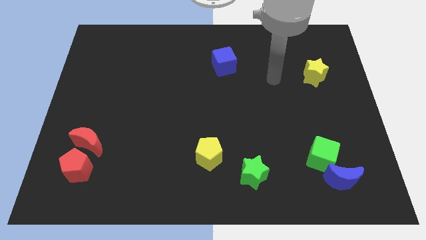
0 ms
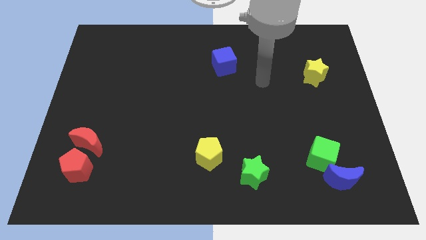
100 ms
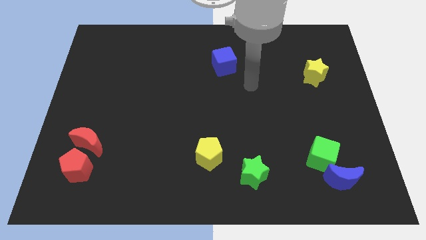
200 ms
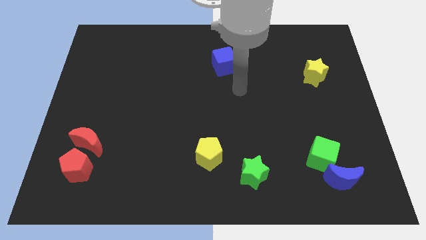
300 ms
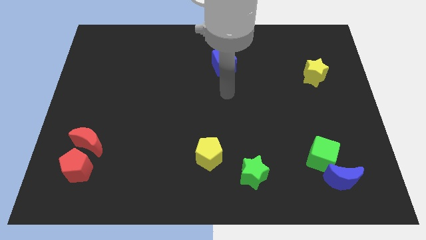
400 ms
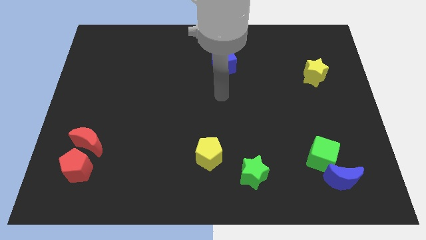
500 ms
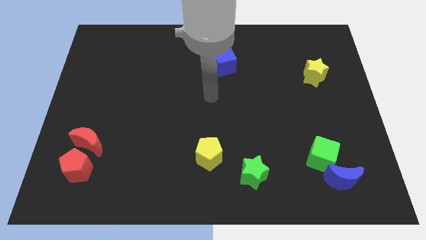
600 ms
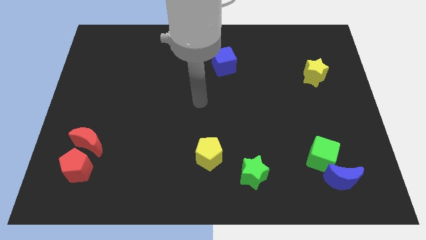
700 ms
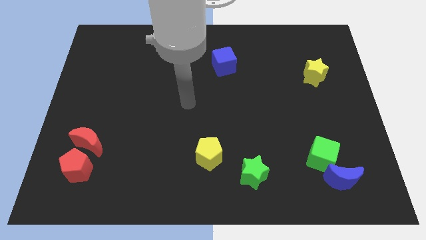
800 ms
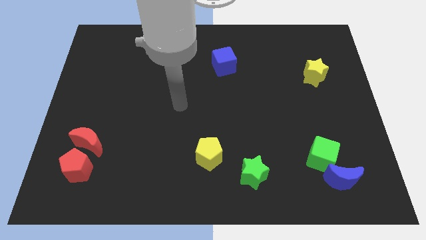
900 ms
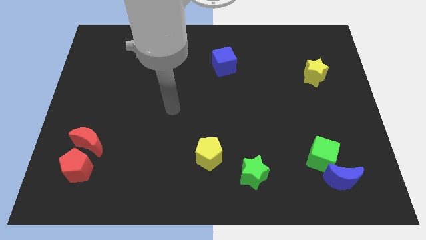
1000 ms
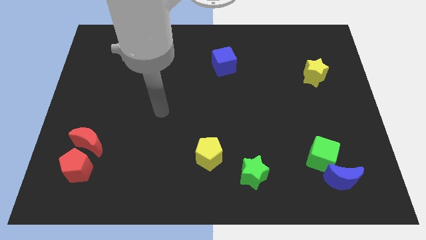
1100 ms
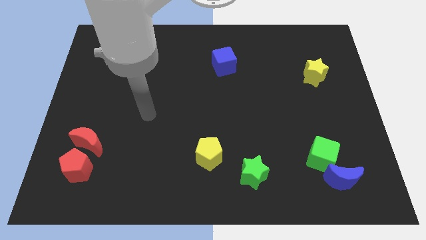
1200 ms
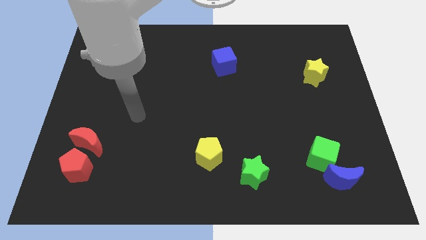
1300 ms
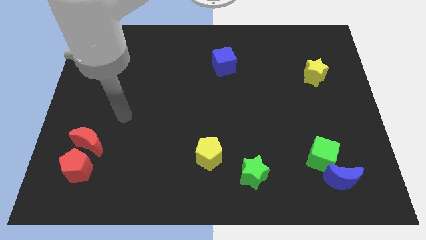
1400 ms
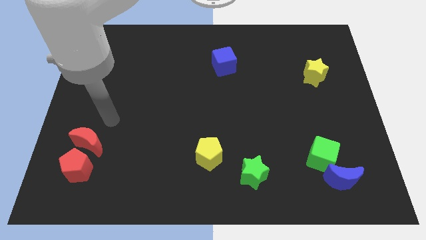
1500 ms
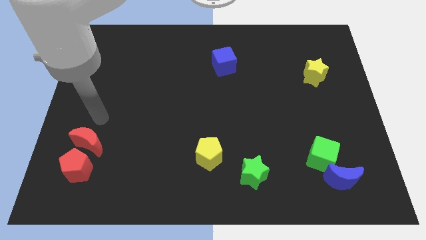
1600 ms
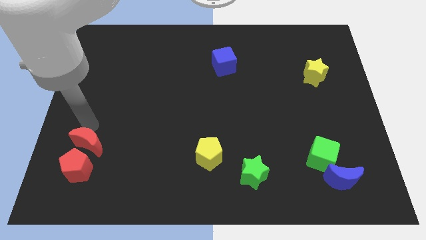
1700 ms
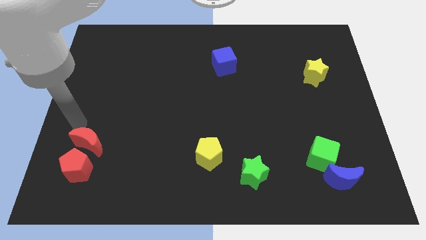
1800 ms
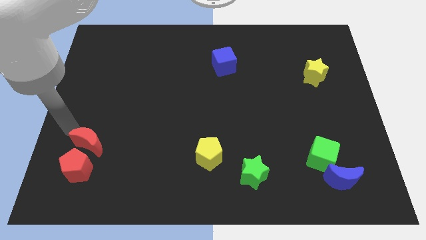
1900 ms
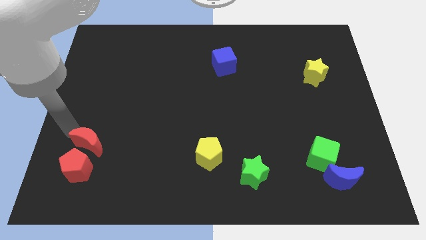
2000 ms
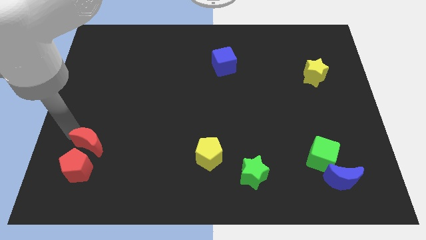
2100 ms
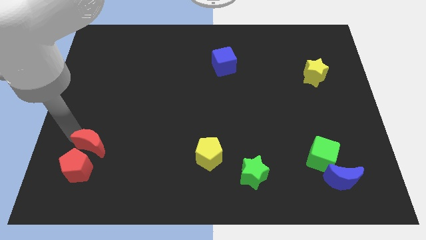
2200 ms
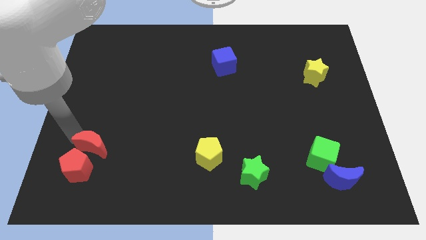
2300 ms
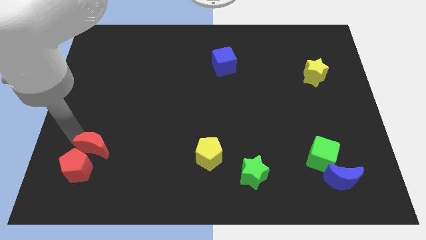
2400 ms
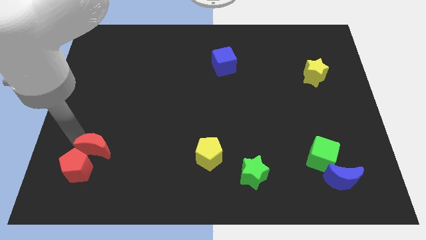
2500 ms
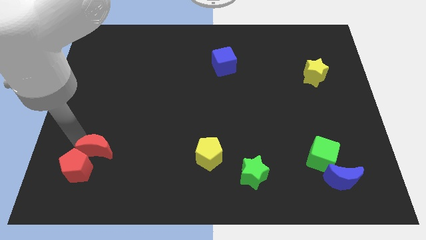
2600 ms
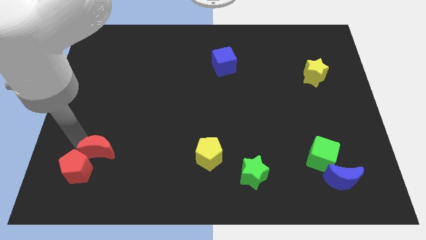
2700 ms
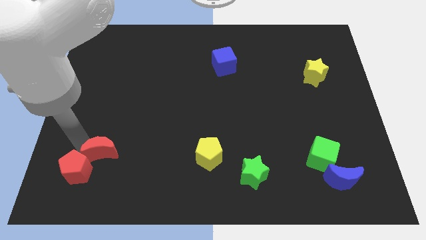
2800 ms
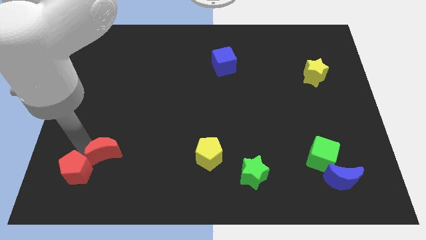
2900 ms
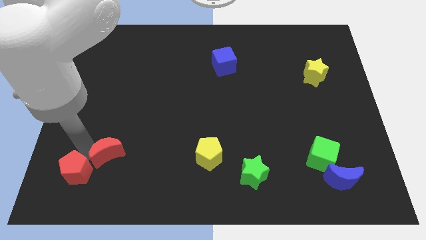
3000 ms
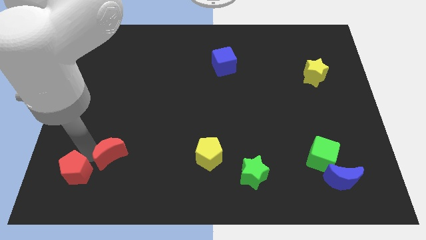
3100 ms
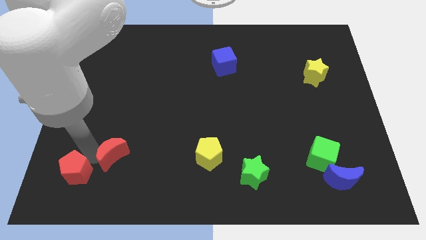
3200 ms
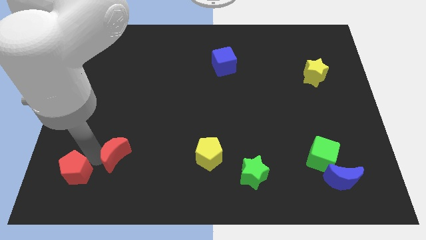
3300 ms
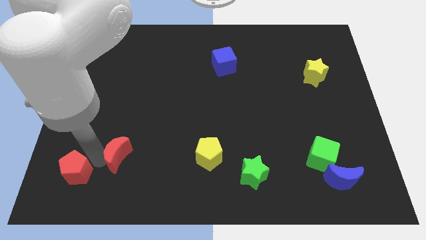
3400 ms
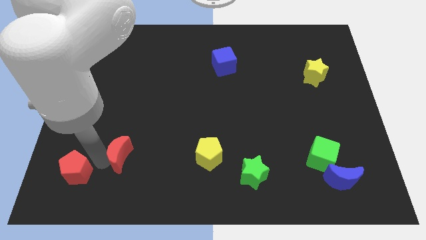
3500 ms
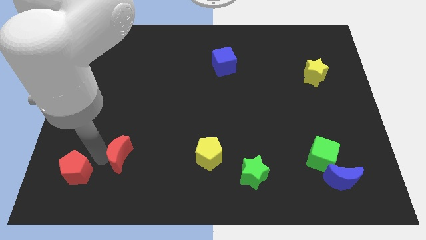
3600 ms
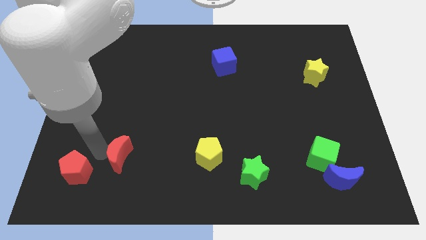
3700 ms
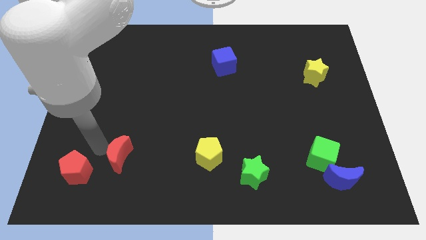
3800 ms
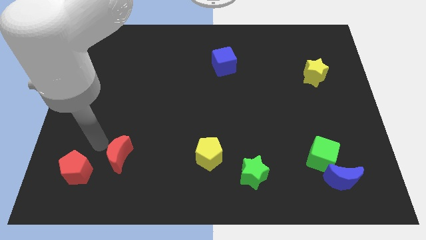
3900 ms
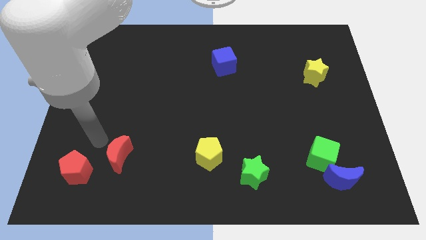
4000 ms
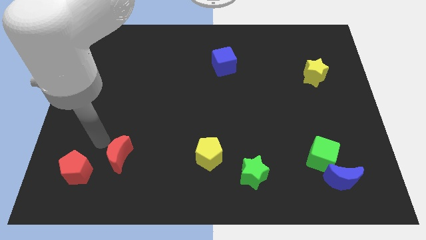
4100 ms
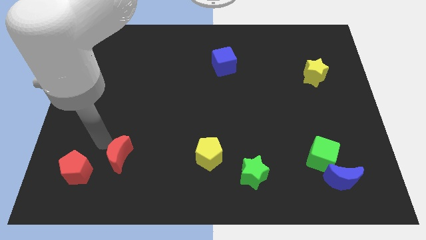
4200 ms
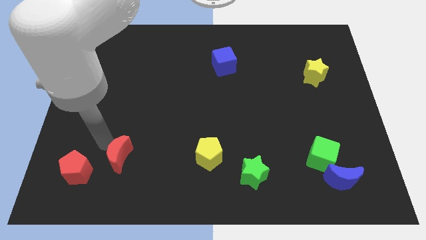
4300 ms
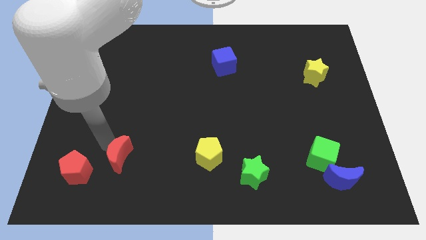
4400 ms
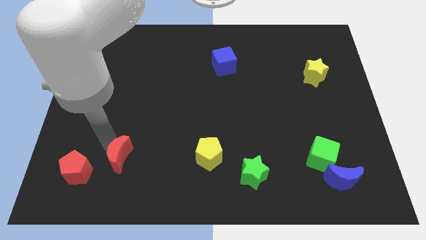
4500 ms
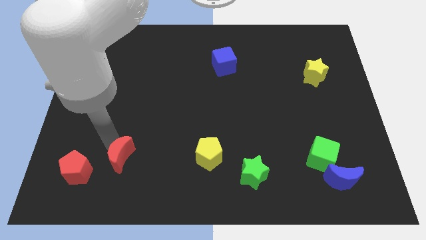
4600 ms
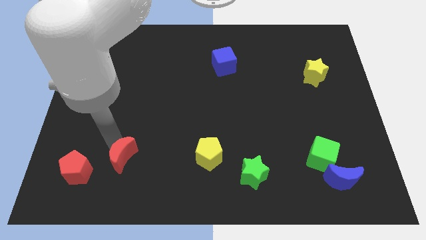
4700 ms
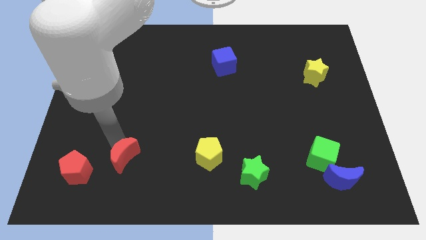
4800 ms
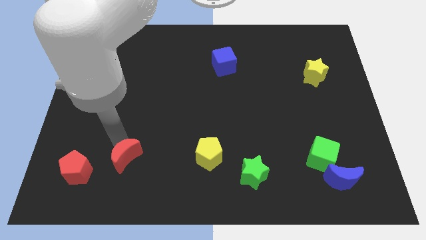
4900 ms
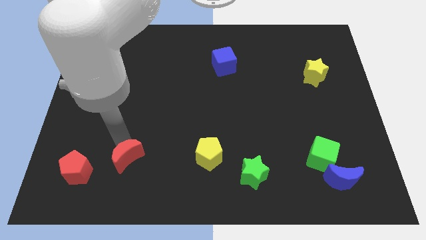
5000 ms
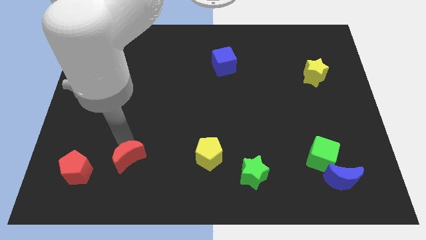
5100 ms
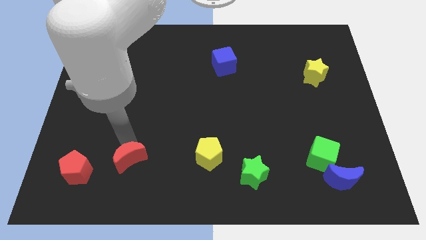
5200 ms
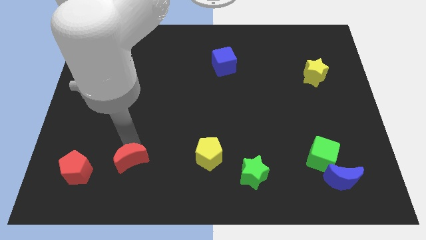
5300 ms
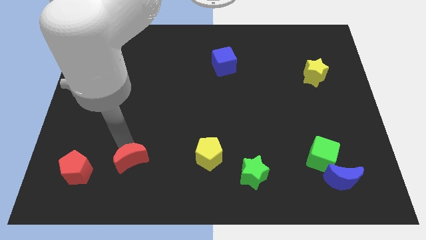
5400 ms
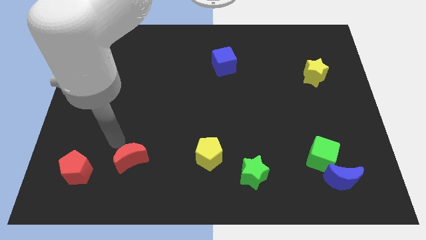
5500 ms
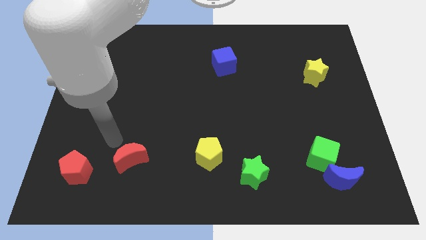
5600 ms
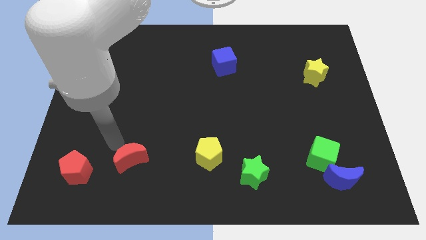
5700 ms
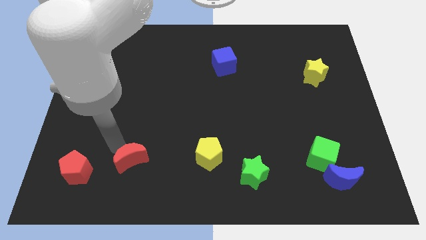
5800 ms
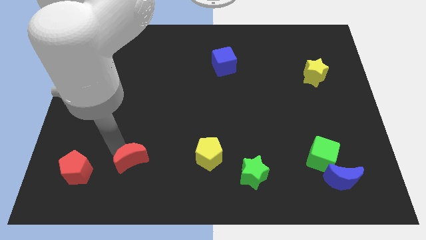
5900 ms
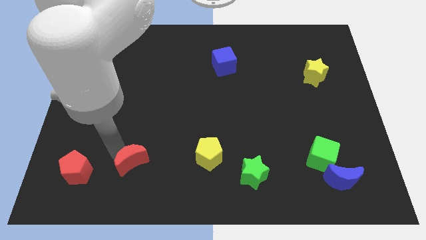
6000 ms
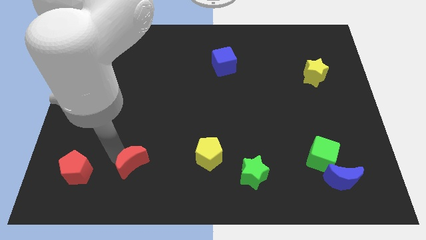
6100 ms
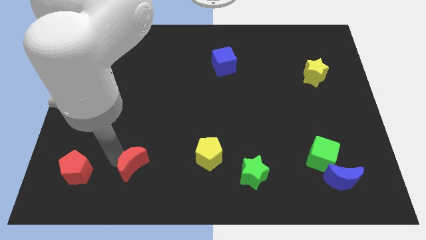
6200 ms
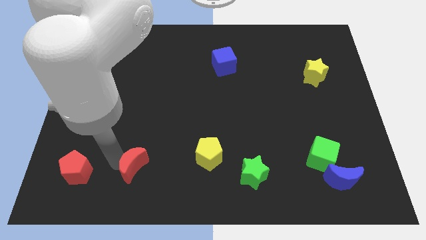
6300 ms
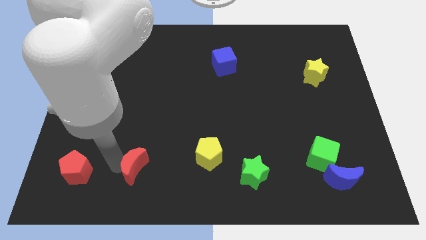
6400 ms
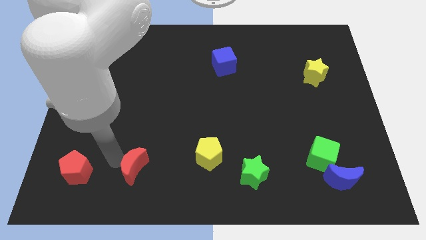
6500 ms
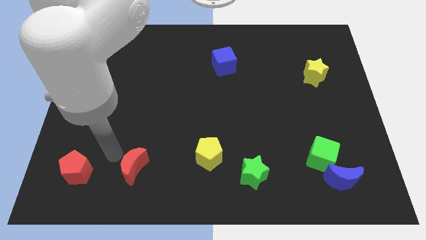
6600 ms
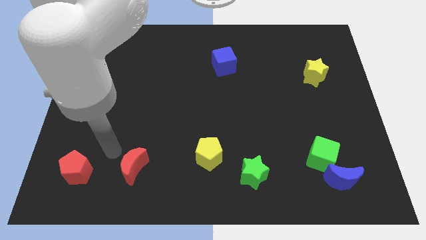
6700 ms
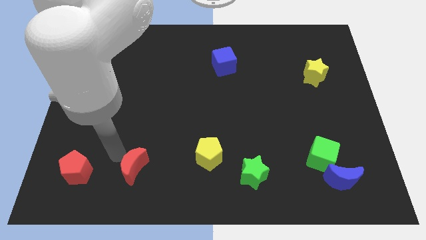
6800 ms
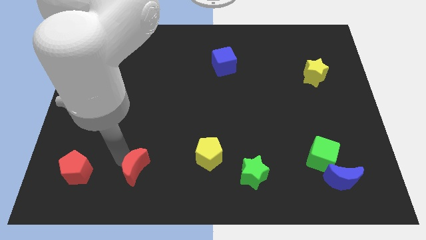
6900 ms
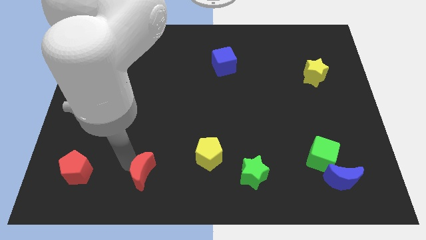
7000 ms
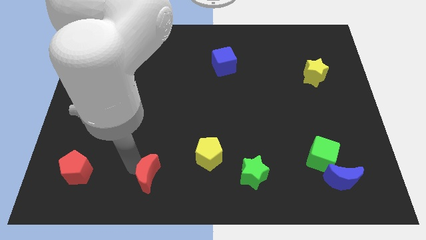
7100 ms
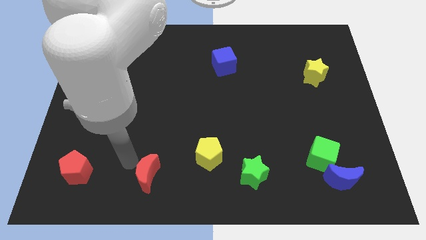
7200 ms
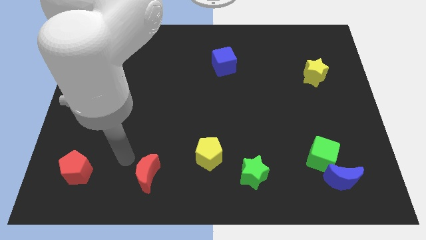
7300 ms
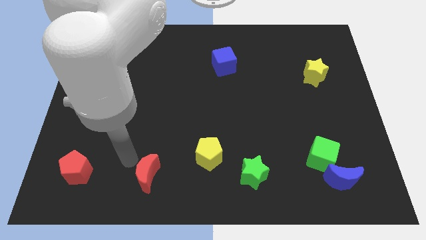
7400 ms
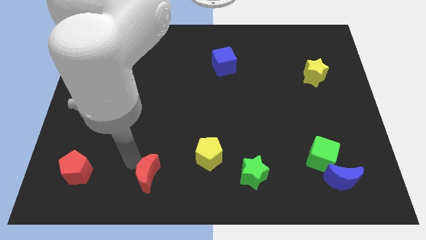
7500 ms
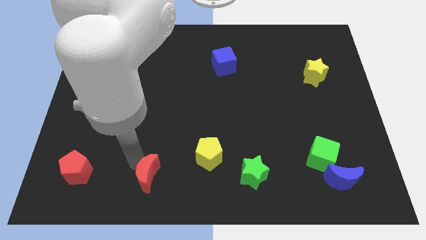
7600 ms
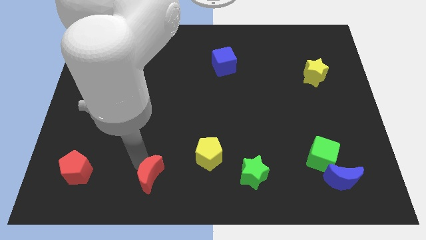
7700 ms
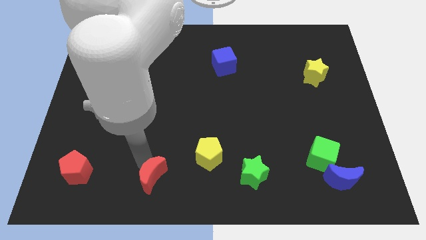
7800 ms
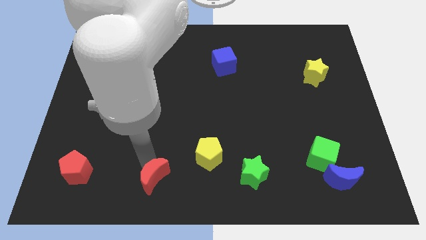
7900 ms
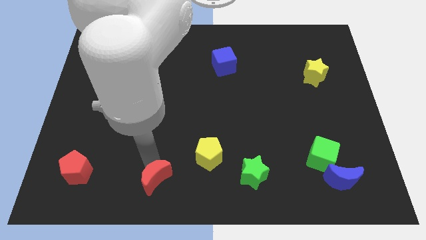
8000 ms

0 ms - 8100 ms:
put the red moon to the bottom
